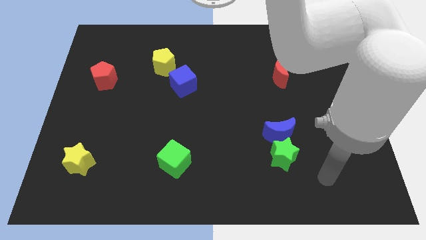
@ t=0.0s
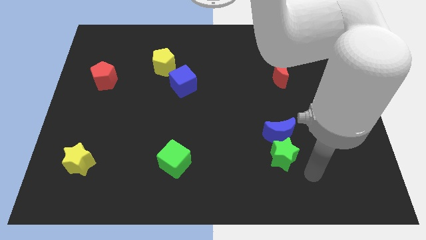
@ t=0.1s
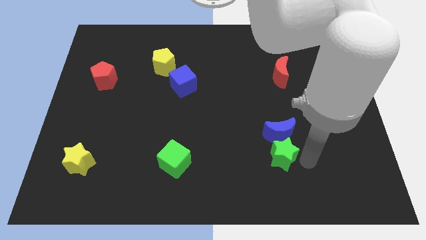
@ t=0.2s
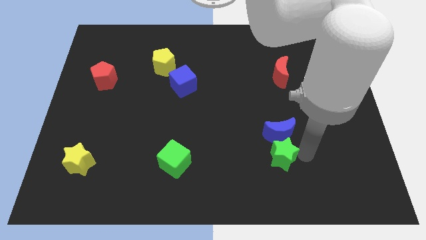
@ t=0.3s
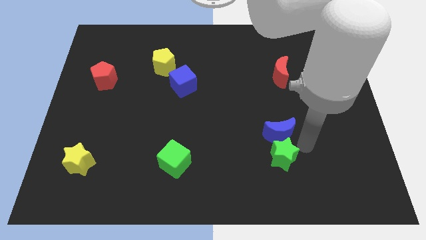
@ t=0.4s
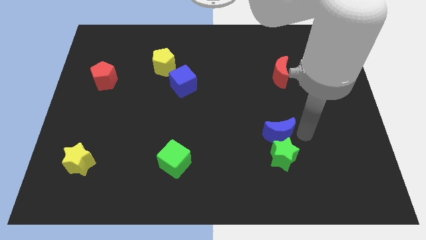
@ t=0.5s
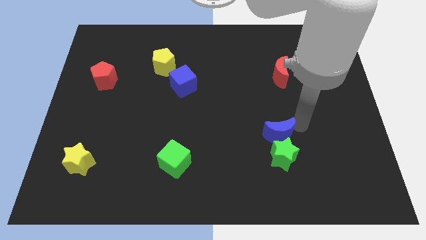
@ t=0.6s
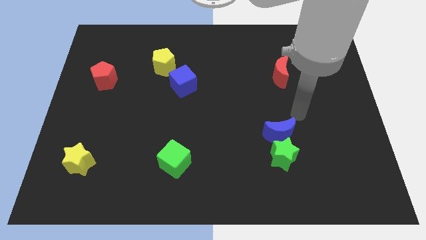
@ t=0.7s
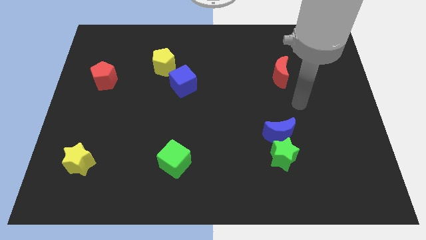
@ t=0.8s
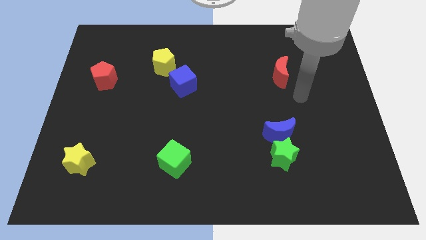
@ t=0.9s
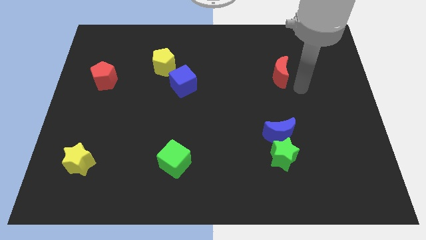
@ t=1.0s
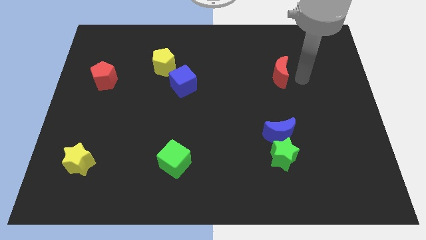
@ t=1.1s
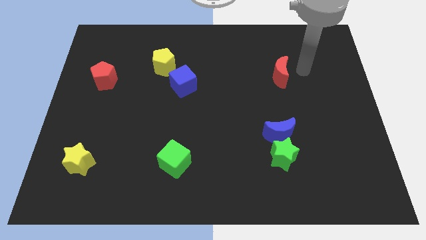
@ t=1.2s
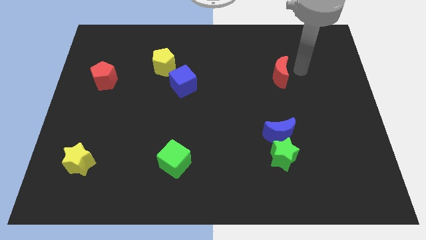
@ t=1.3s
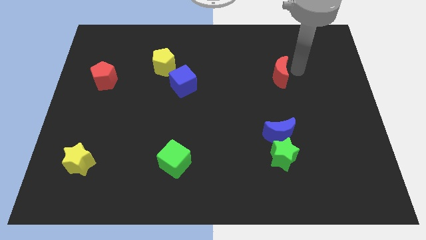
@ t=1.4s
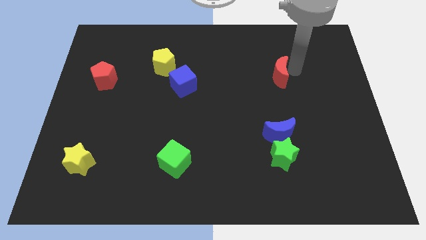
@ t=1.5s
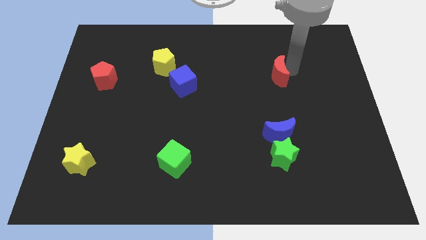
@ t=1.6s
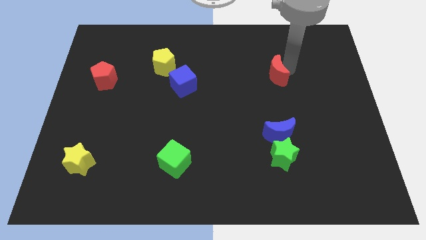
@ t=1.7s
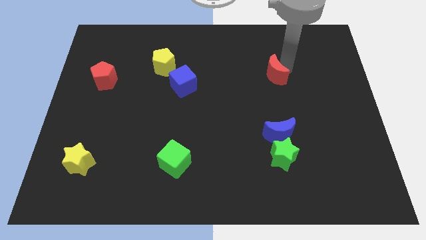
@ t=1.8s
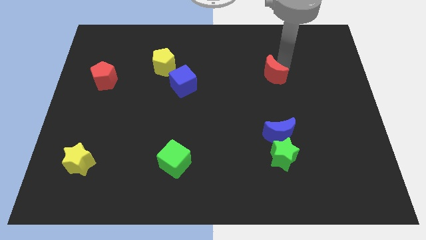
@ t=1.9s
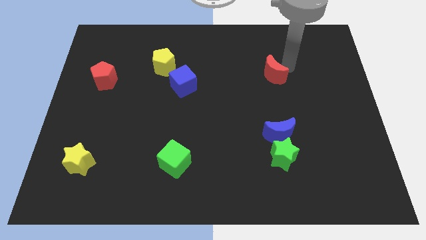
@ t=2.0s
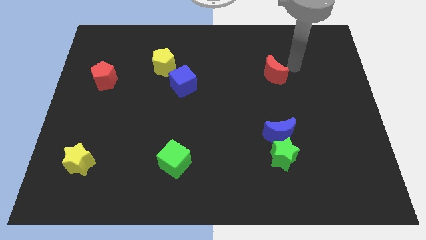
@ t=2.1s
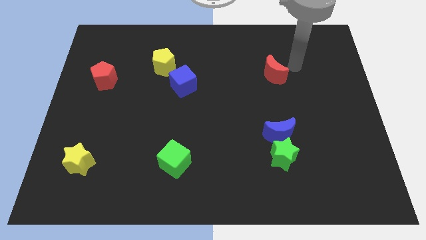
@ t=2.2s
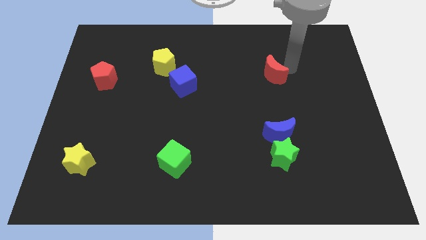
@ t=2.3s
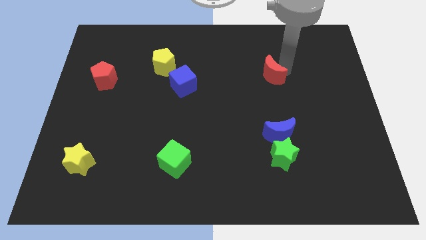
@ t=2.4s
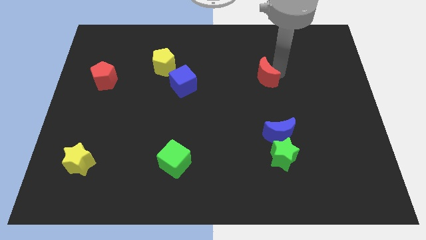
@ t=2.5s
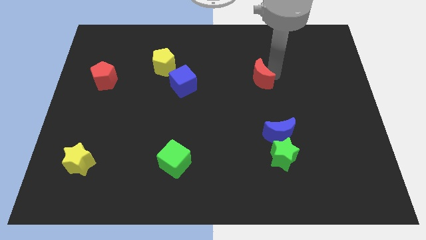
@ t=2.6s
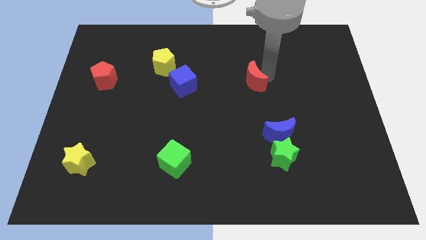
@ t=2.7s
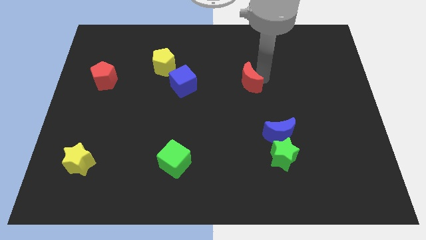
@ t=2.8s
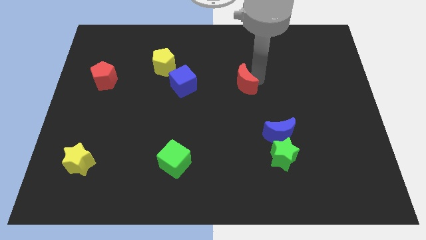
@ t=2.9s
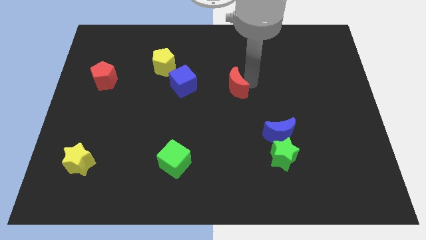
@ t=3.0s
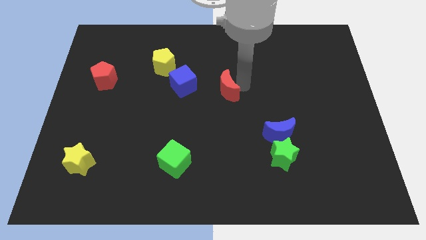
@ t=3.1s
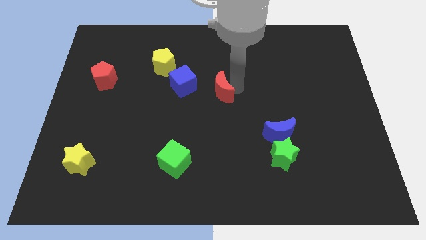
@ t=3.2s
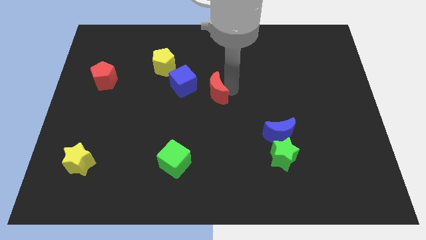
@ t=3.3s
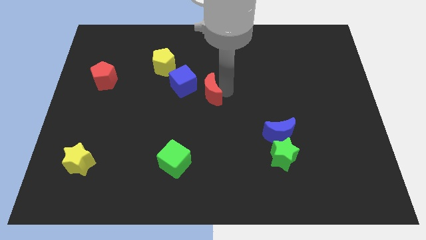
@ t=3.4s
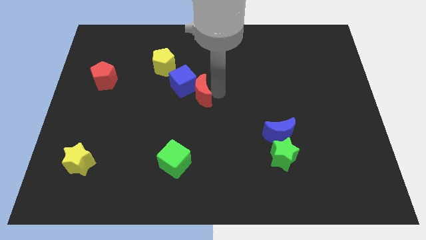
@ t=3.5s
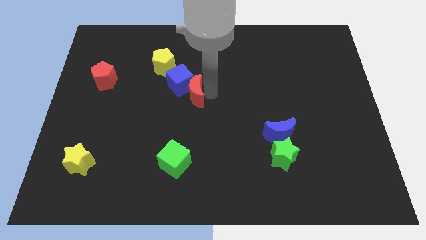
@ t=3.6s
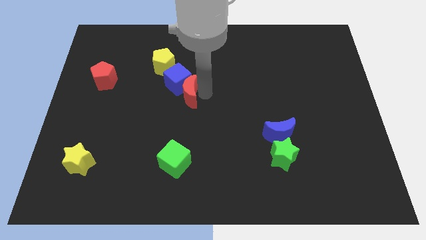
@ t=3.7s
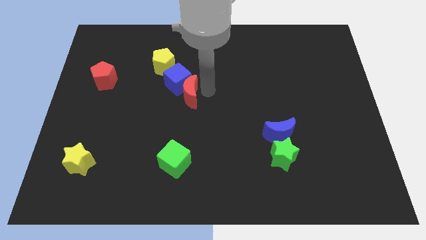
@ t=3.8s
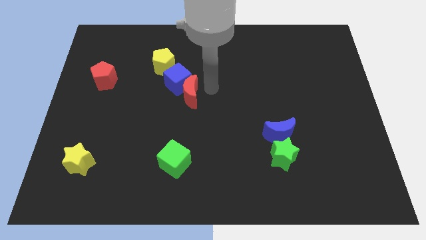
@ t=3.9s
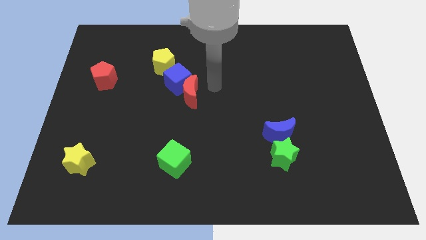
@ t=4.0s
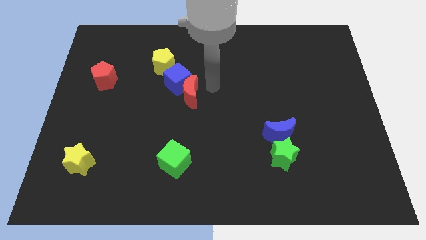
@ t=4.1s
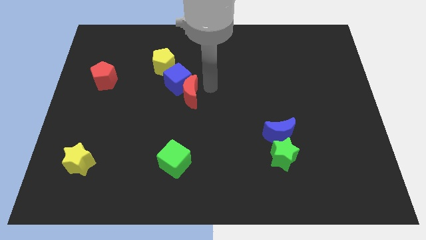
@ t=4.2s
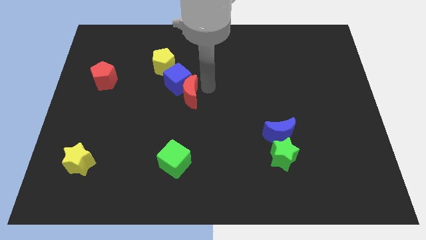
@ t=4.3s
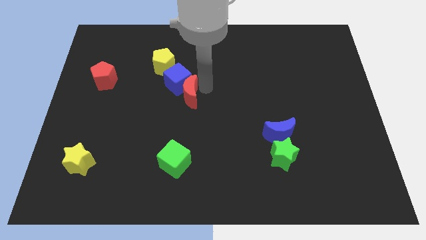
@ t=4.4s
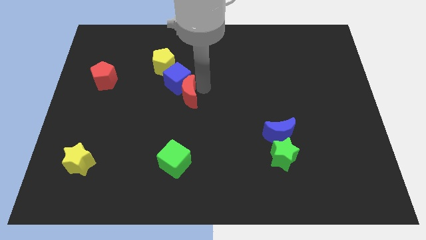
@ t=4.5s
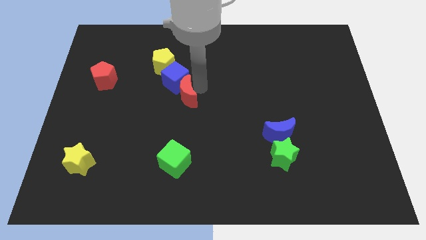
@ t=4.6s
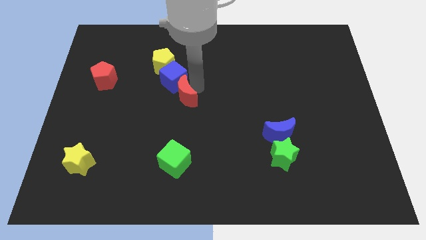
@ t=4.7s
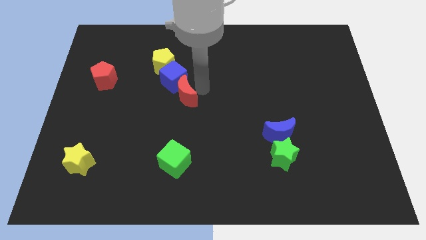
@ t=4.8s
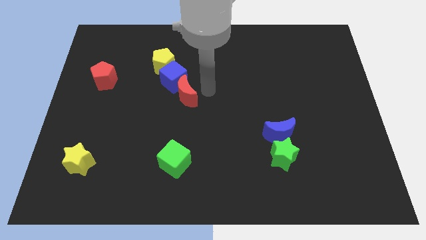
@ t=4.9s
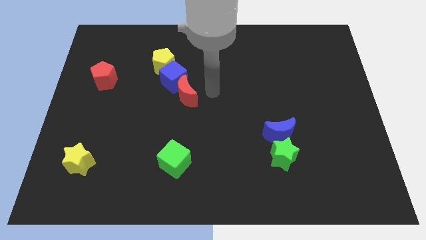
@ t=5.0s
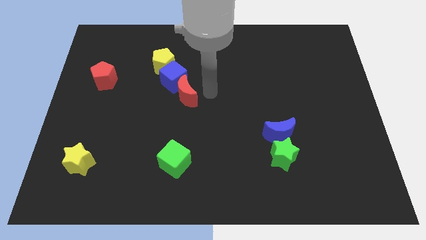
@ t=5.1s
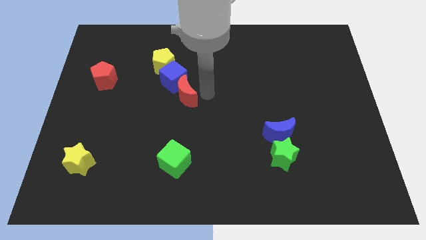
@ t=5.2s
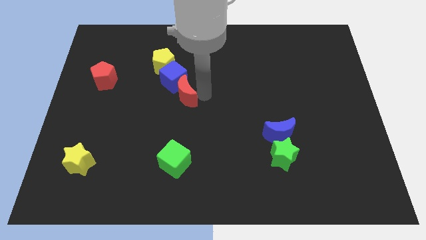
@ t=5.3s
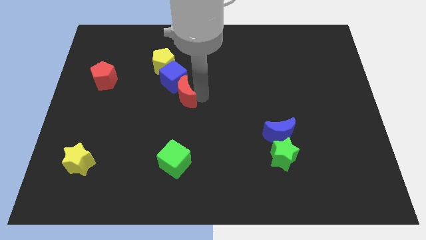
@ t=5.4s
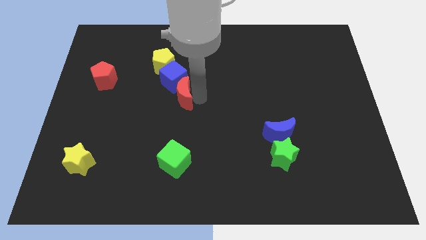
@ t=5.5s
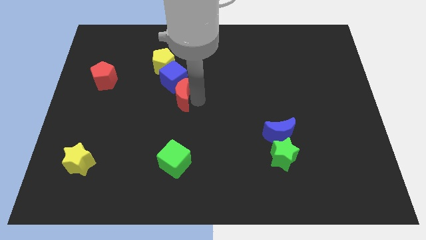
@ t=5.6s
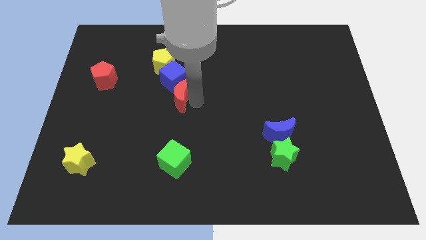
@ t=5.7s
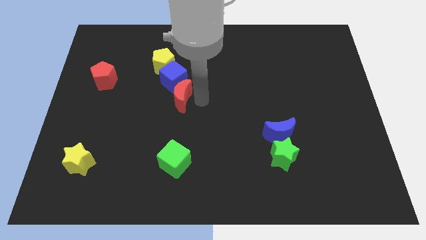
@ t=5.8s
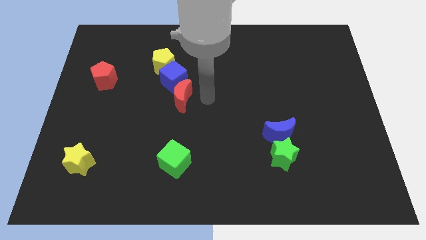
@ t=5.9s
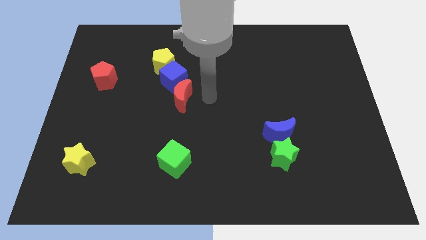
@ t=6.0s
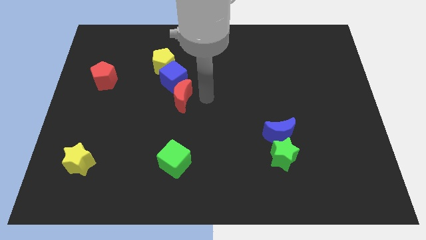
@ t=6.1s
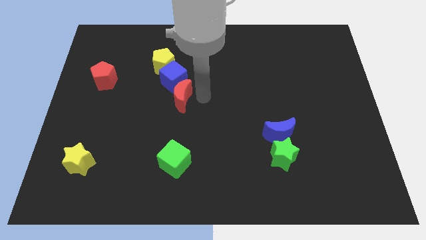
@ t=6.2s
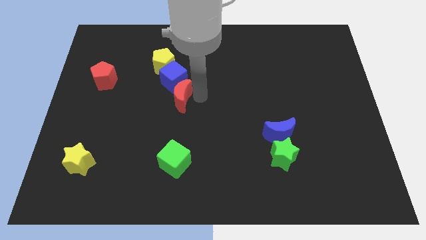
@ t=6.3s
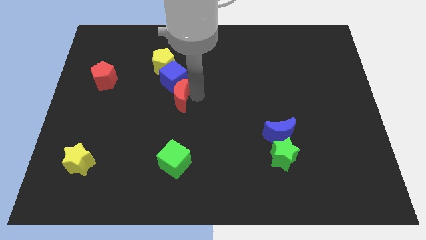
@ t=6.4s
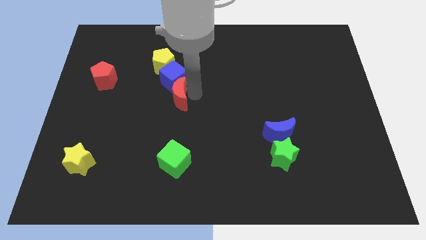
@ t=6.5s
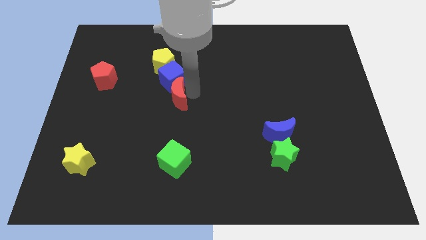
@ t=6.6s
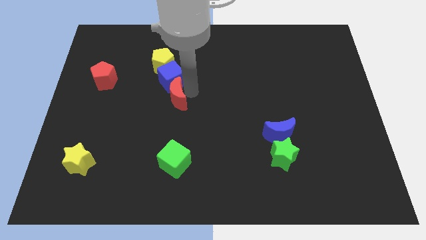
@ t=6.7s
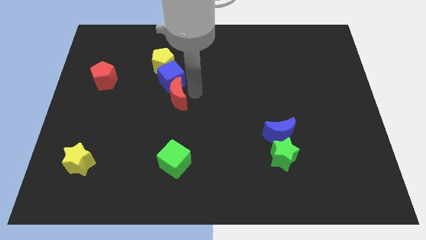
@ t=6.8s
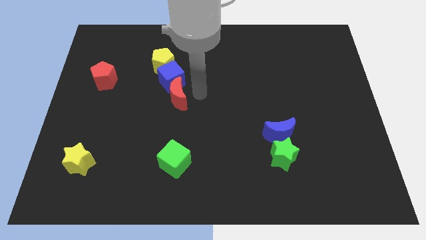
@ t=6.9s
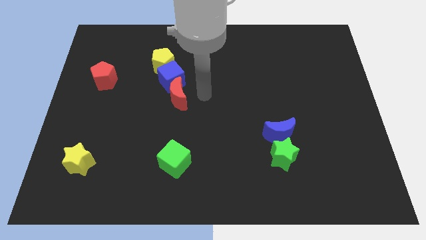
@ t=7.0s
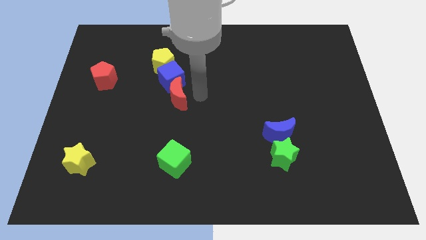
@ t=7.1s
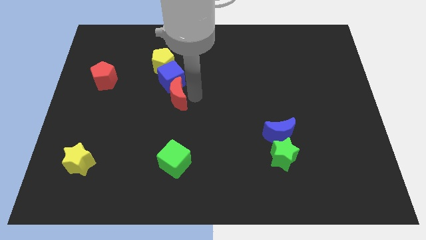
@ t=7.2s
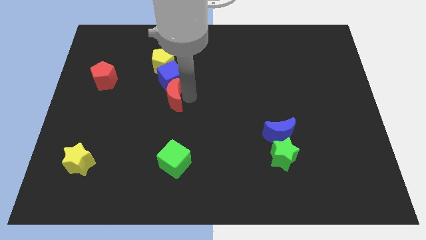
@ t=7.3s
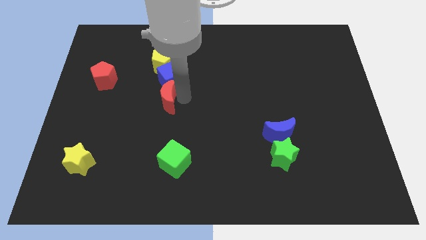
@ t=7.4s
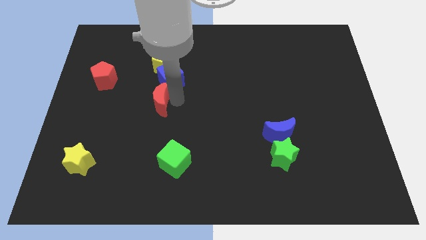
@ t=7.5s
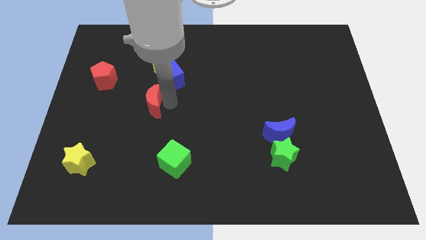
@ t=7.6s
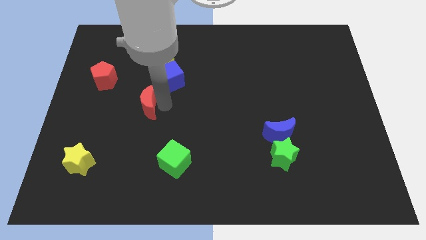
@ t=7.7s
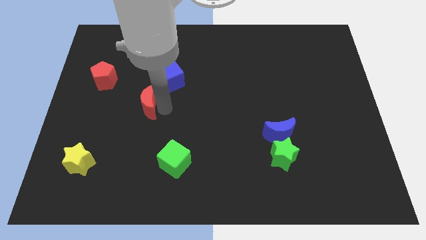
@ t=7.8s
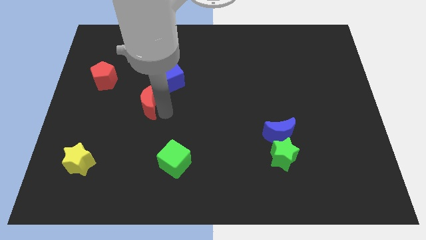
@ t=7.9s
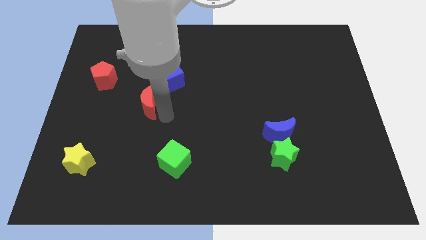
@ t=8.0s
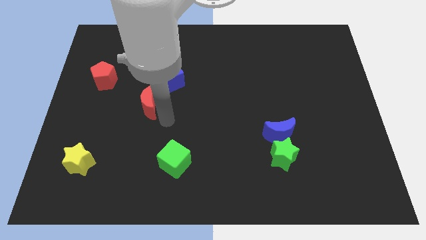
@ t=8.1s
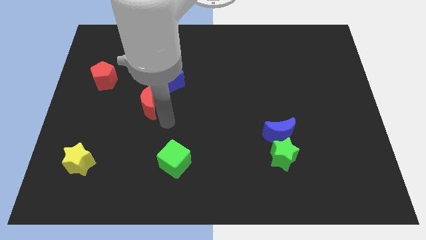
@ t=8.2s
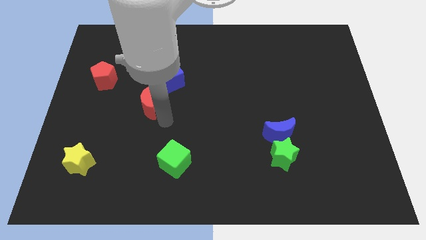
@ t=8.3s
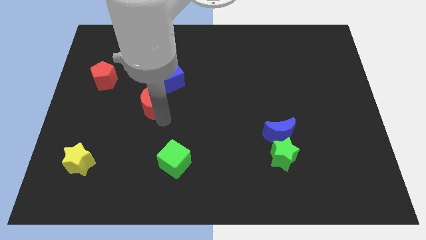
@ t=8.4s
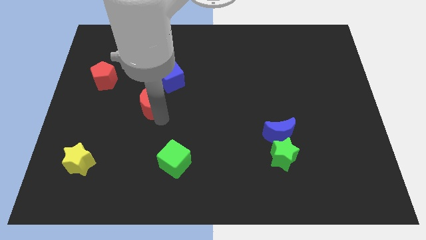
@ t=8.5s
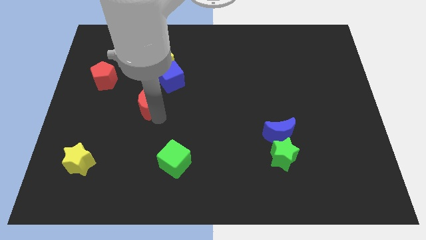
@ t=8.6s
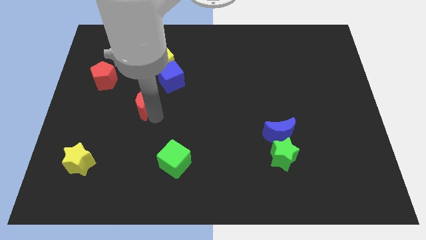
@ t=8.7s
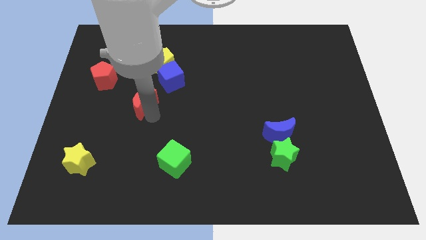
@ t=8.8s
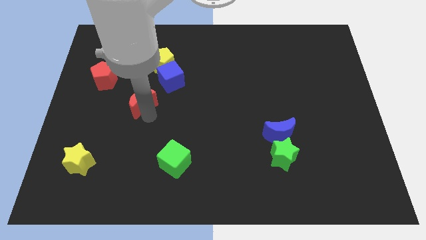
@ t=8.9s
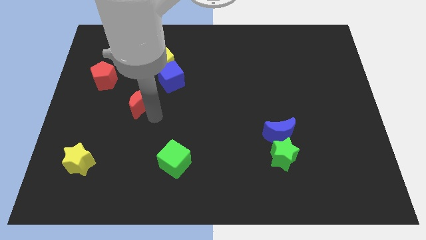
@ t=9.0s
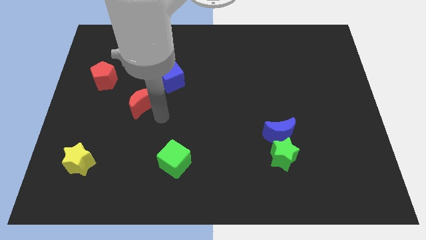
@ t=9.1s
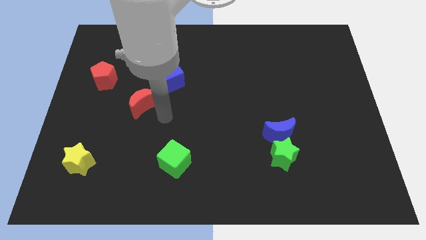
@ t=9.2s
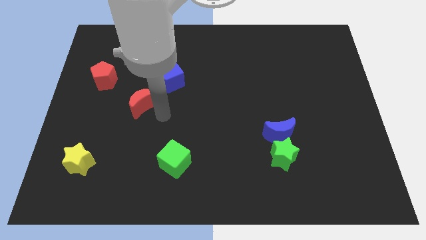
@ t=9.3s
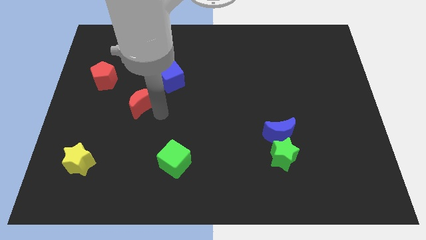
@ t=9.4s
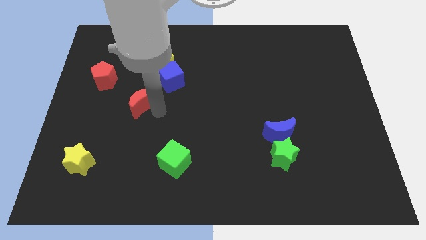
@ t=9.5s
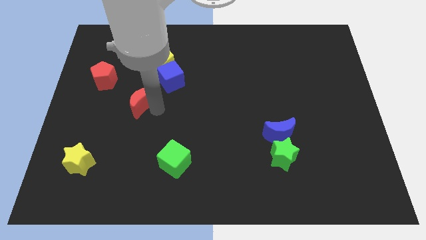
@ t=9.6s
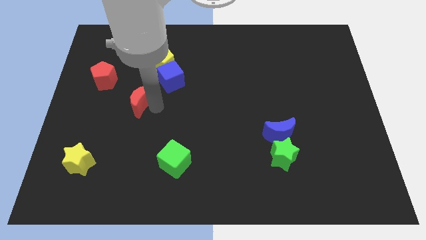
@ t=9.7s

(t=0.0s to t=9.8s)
move the red moon to the bottom right of the red pentagon
